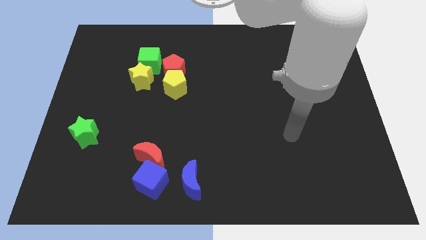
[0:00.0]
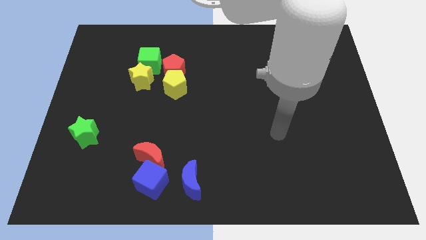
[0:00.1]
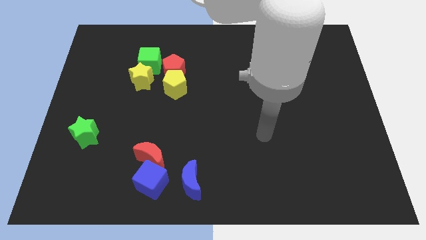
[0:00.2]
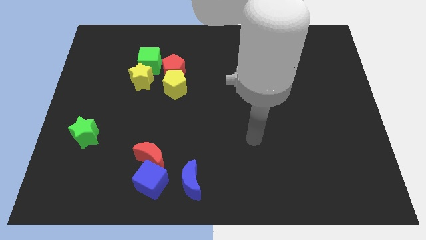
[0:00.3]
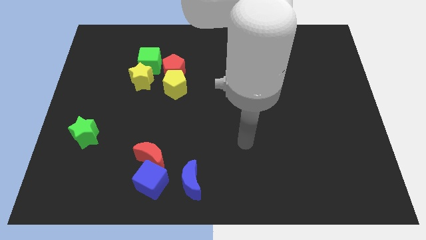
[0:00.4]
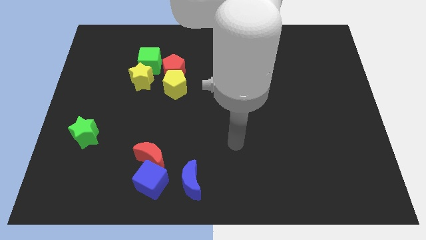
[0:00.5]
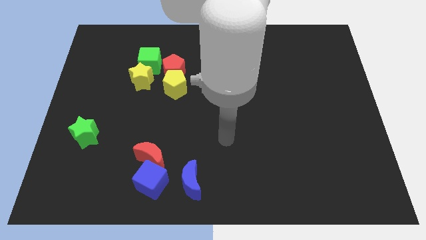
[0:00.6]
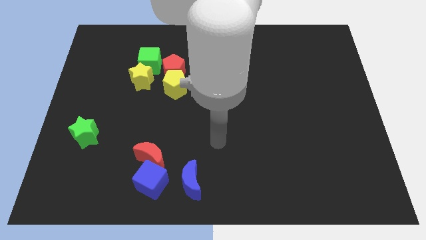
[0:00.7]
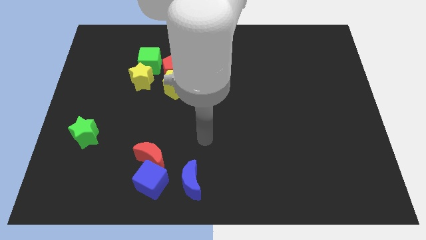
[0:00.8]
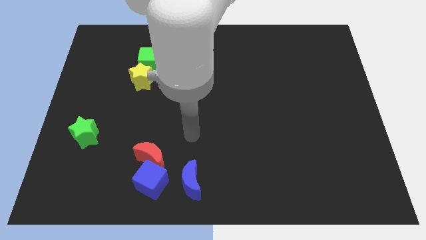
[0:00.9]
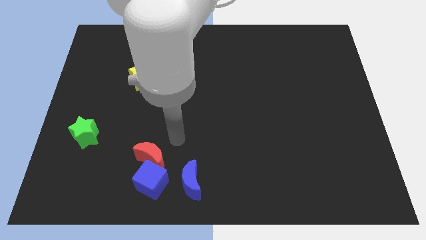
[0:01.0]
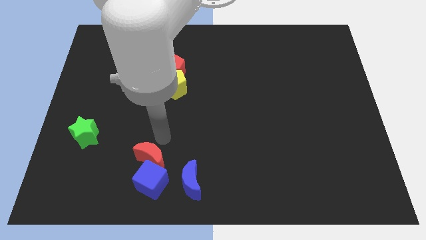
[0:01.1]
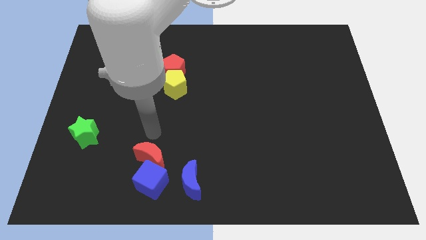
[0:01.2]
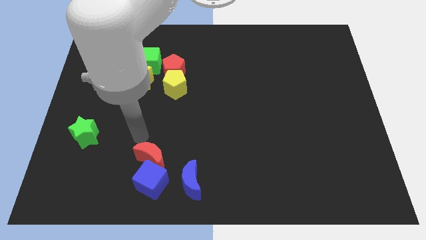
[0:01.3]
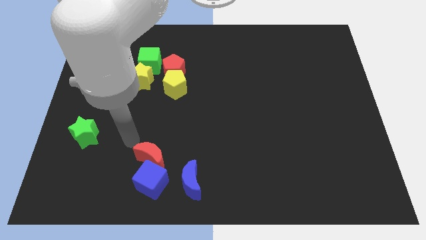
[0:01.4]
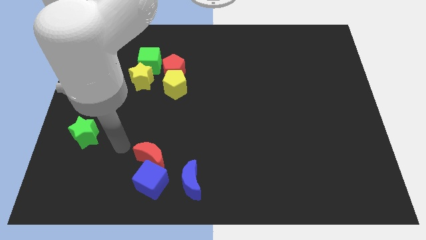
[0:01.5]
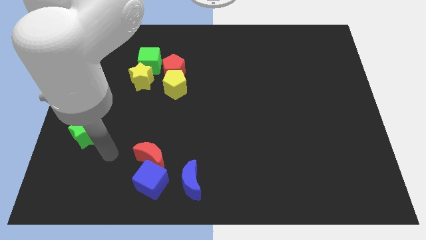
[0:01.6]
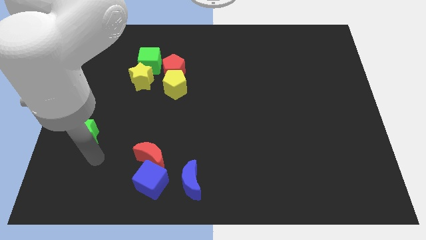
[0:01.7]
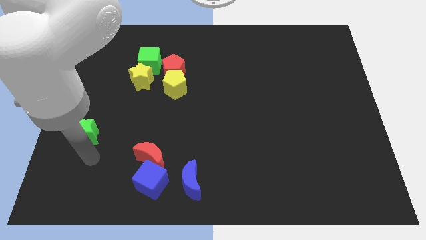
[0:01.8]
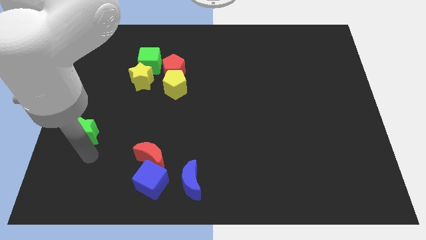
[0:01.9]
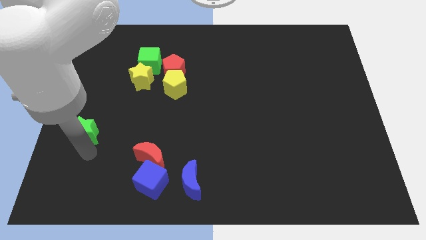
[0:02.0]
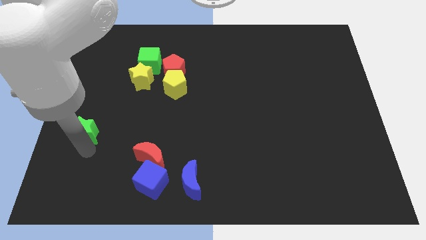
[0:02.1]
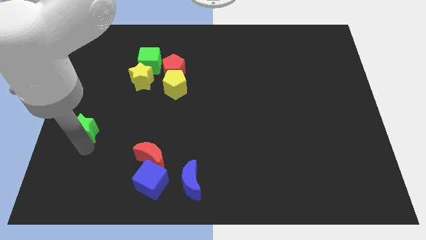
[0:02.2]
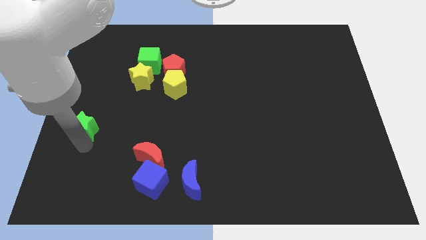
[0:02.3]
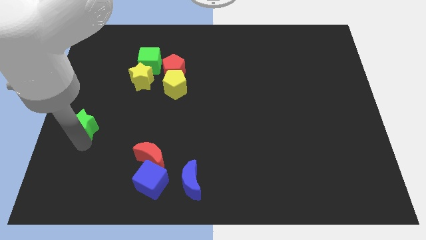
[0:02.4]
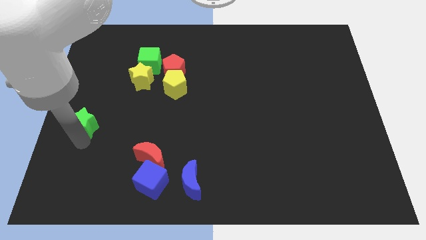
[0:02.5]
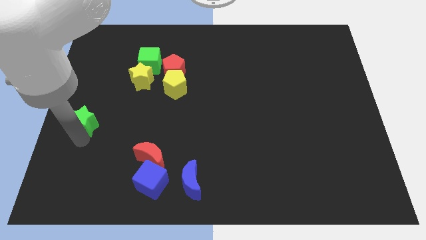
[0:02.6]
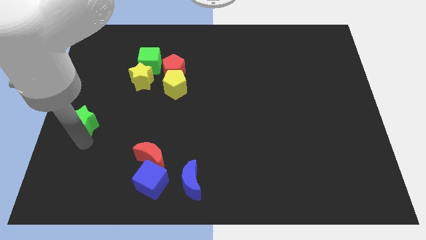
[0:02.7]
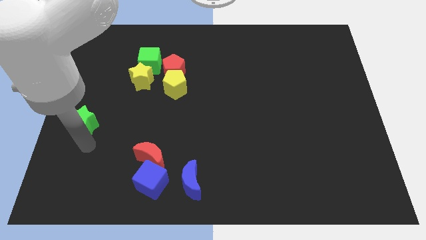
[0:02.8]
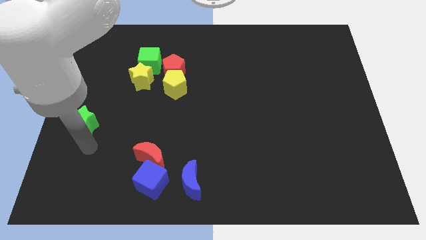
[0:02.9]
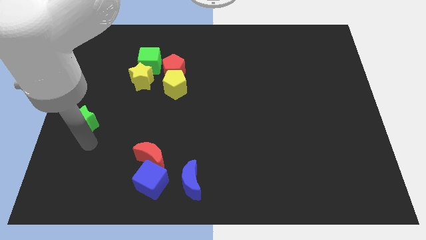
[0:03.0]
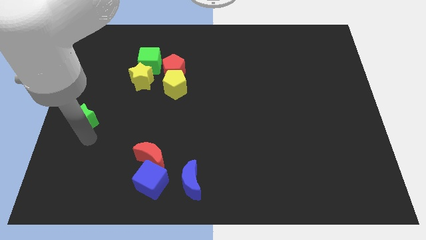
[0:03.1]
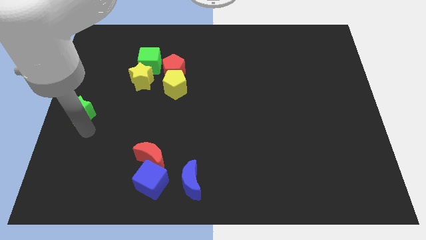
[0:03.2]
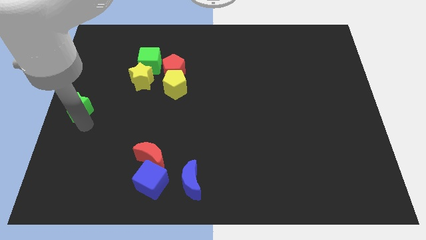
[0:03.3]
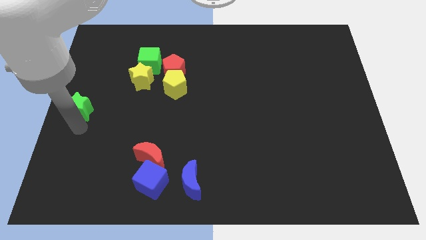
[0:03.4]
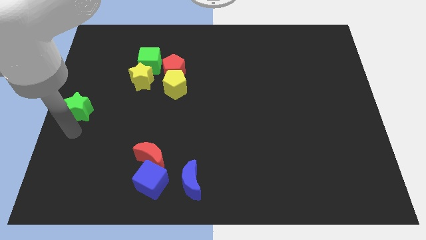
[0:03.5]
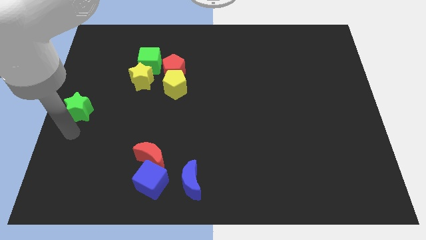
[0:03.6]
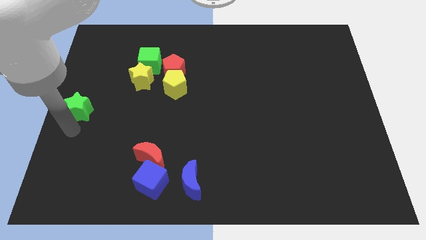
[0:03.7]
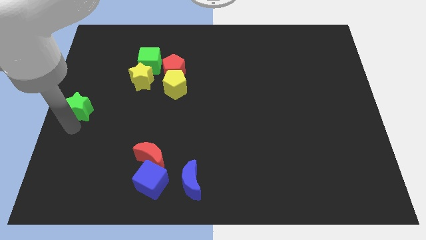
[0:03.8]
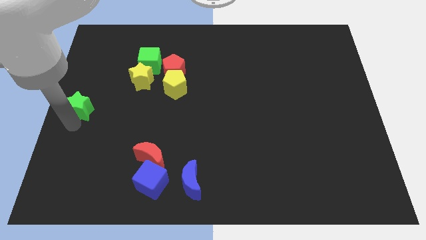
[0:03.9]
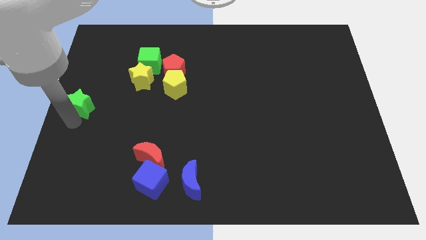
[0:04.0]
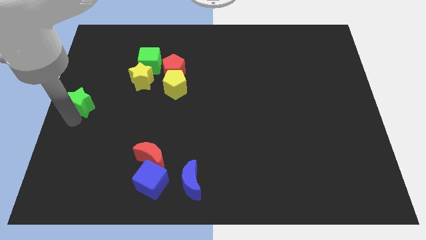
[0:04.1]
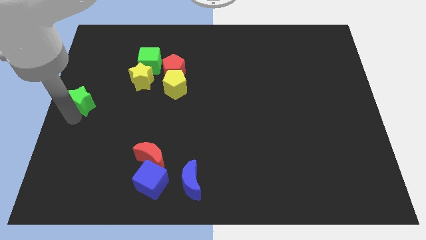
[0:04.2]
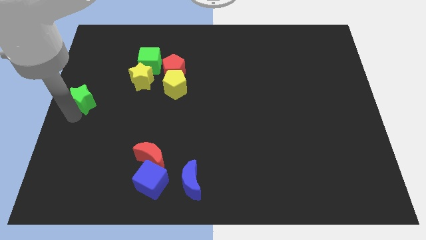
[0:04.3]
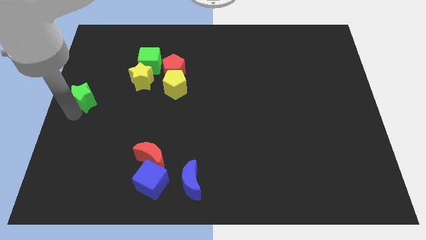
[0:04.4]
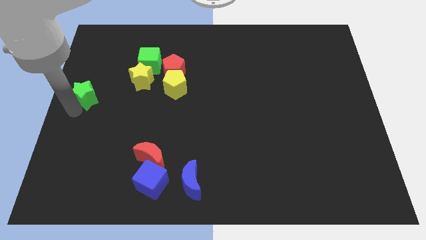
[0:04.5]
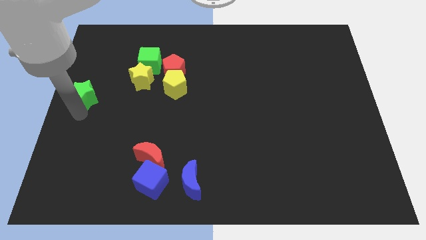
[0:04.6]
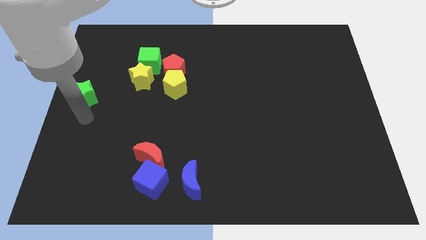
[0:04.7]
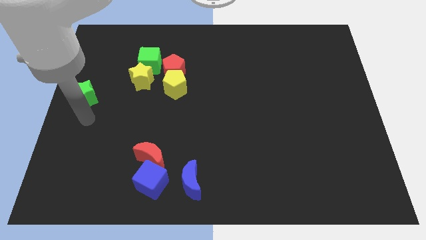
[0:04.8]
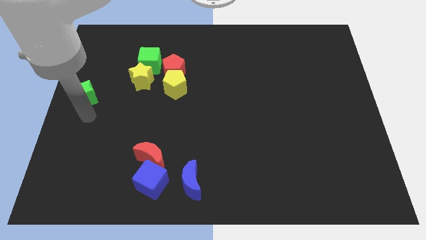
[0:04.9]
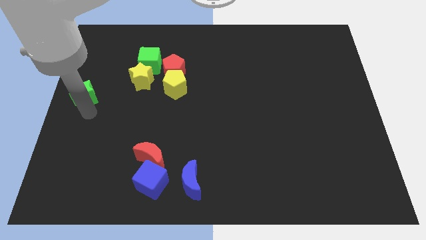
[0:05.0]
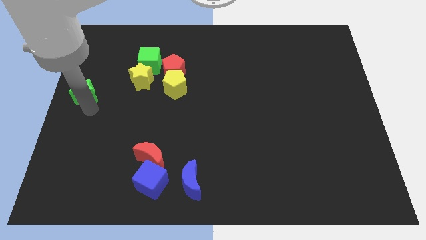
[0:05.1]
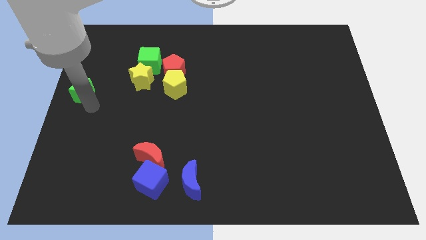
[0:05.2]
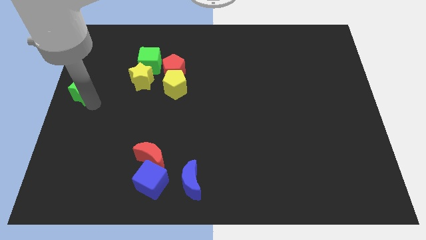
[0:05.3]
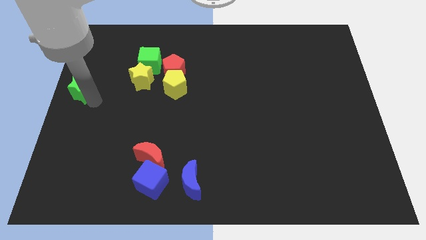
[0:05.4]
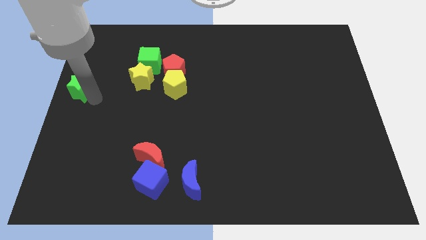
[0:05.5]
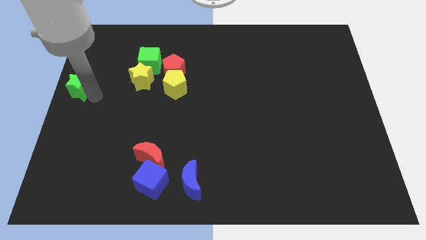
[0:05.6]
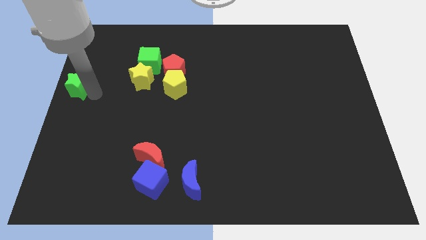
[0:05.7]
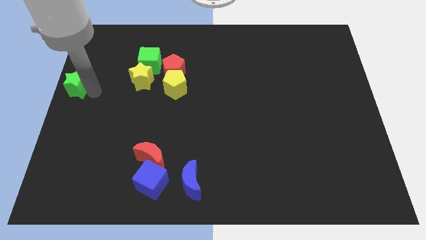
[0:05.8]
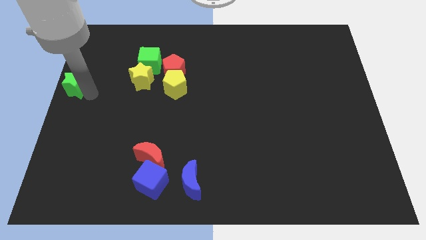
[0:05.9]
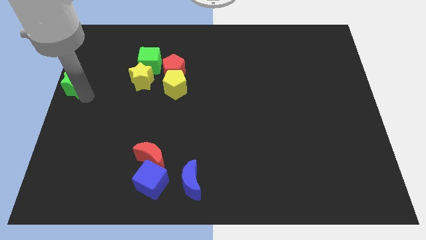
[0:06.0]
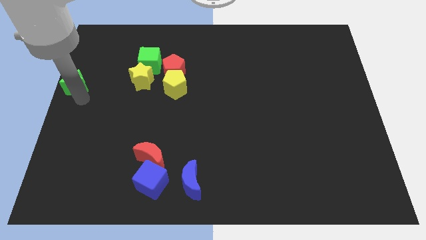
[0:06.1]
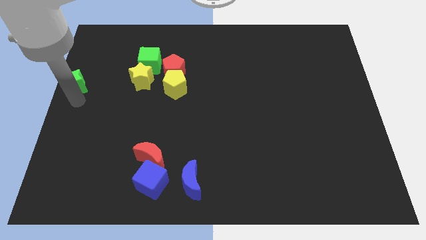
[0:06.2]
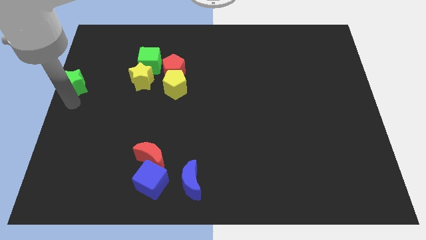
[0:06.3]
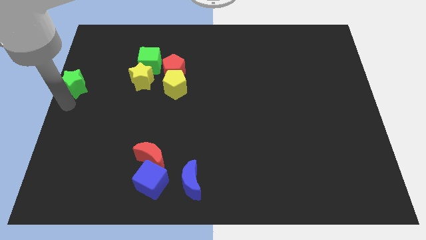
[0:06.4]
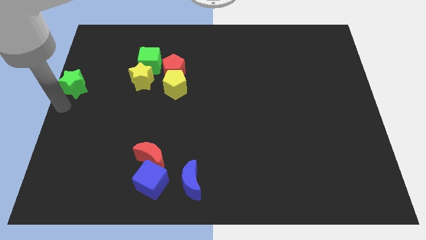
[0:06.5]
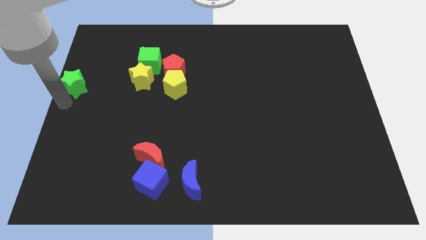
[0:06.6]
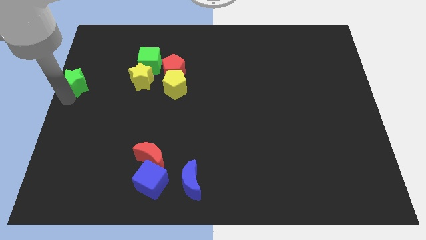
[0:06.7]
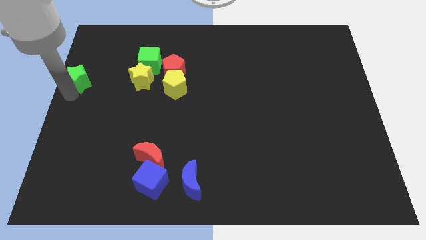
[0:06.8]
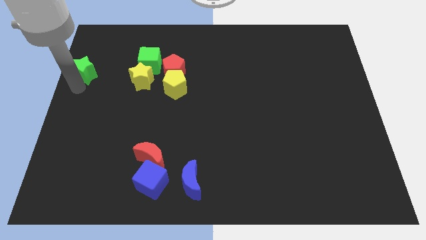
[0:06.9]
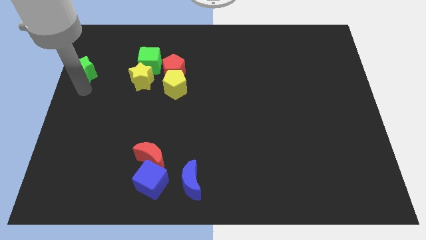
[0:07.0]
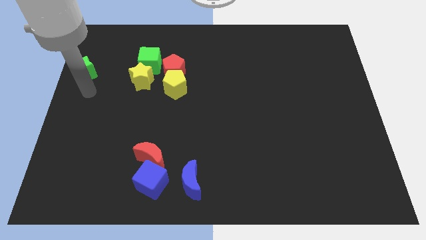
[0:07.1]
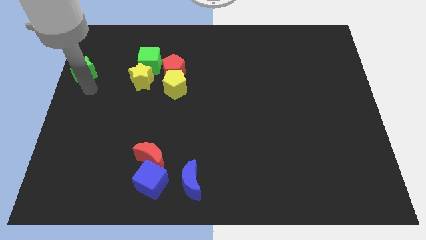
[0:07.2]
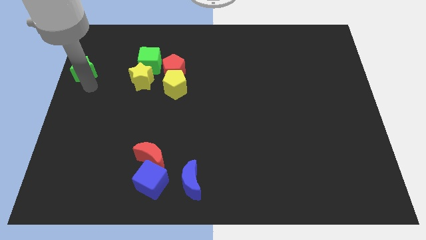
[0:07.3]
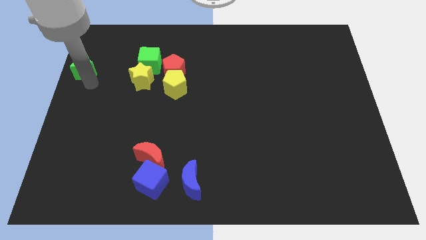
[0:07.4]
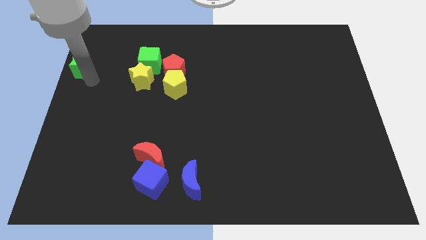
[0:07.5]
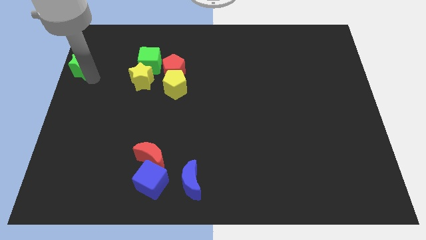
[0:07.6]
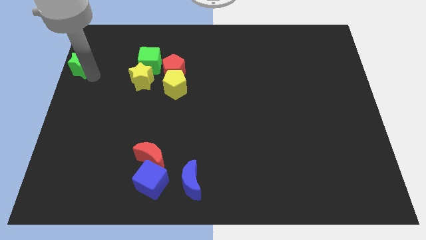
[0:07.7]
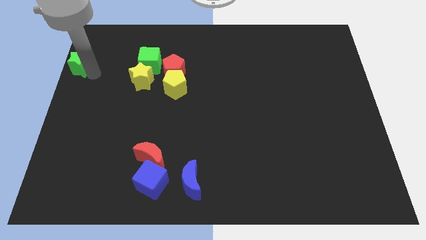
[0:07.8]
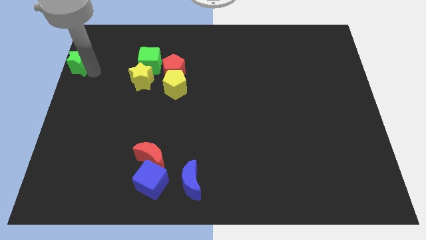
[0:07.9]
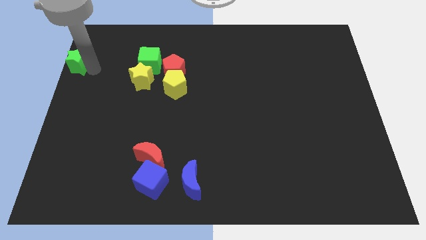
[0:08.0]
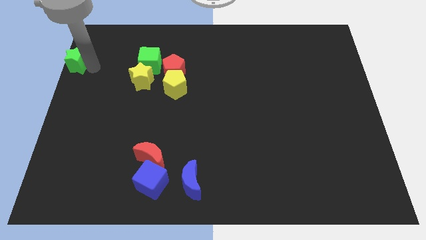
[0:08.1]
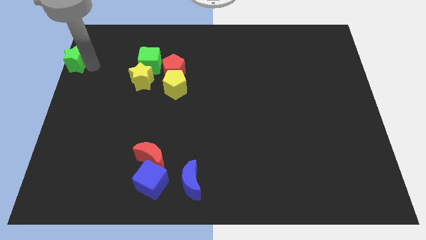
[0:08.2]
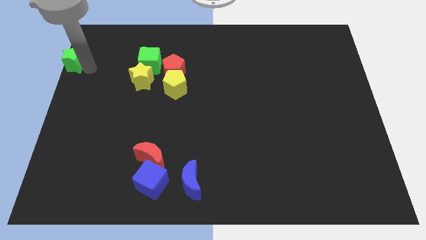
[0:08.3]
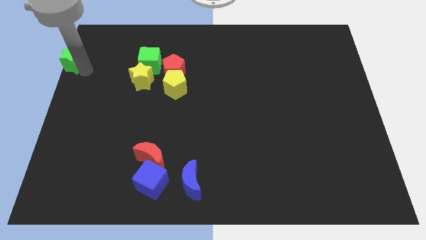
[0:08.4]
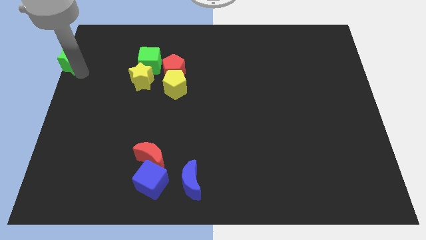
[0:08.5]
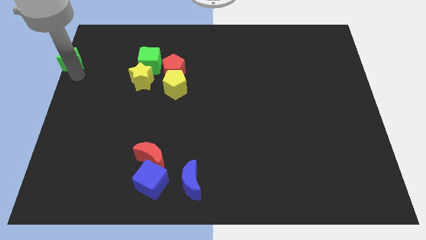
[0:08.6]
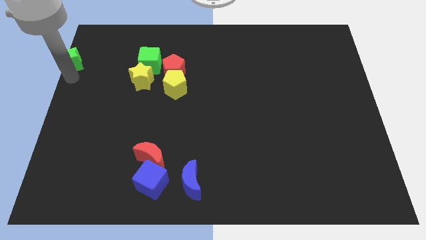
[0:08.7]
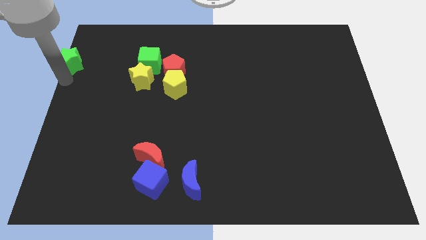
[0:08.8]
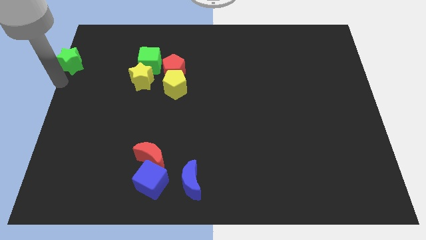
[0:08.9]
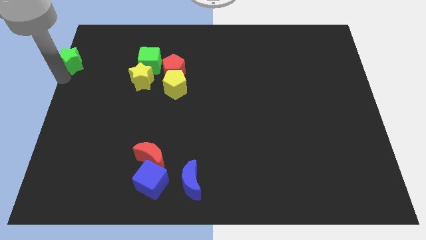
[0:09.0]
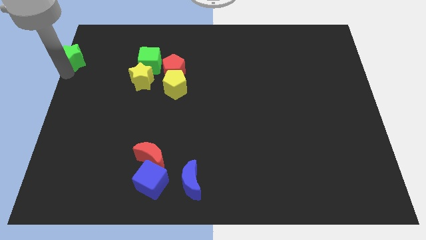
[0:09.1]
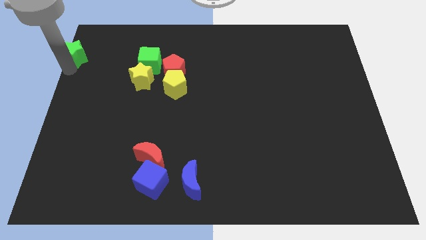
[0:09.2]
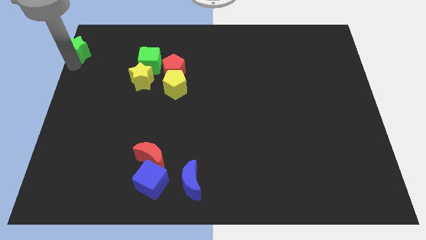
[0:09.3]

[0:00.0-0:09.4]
push the green star to the top left corner
